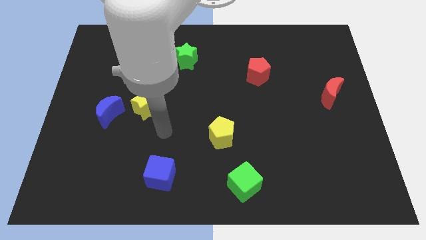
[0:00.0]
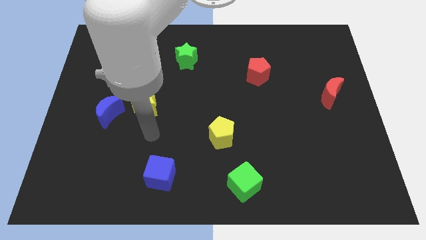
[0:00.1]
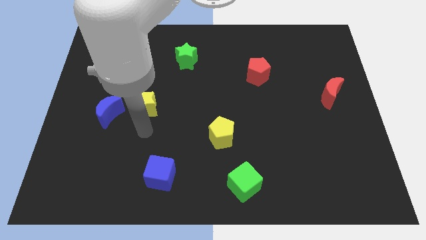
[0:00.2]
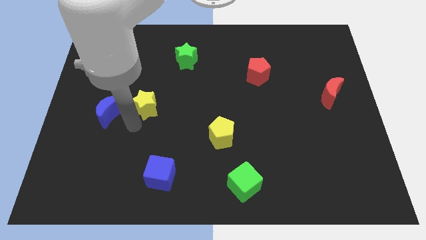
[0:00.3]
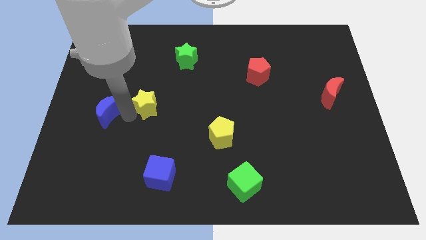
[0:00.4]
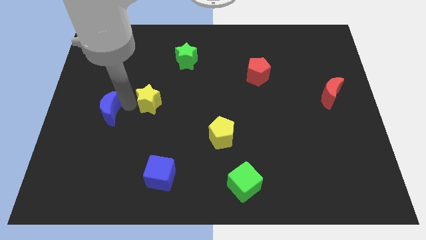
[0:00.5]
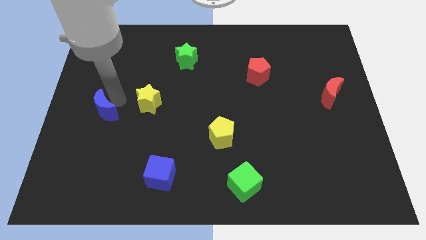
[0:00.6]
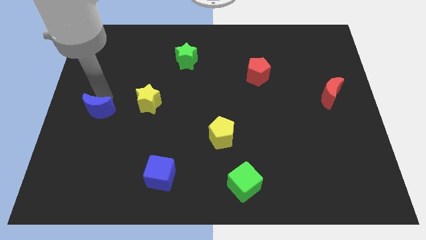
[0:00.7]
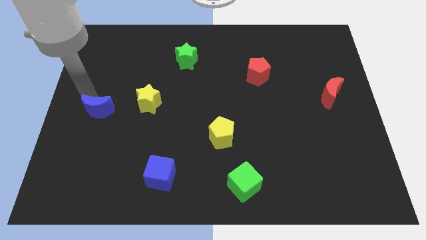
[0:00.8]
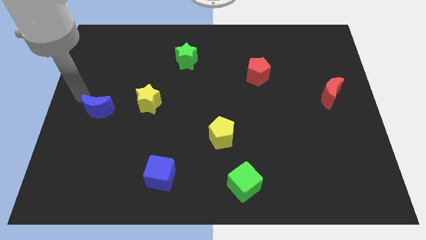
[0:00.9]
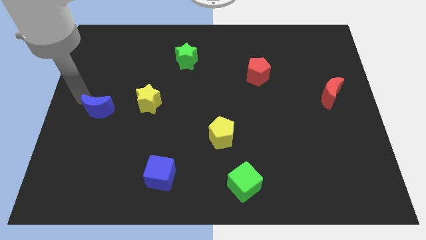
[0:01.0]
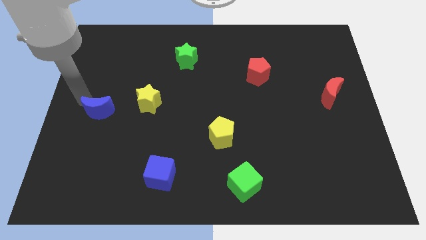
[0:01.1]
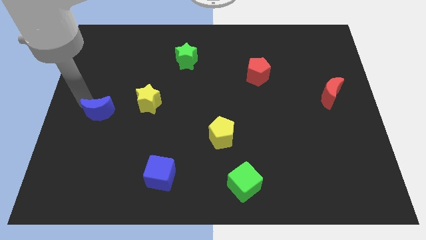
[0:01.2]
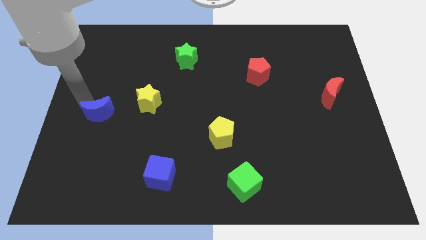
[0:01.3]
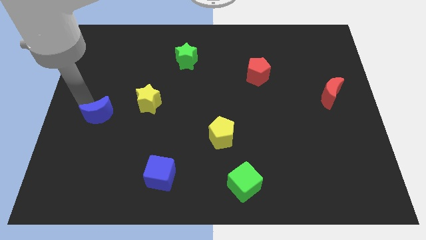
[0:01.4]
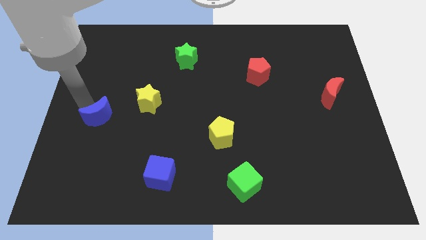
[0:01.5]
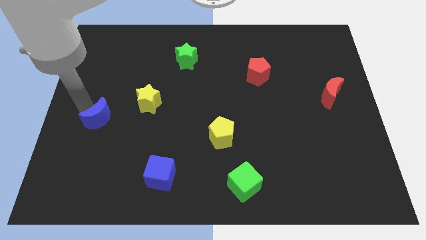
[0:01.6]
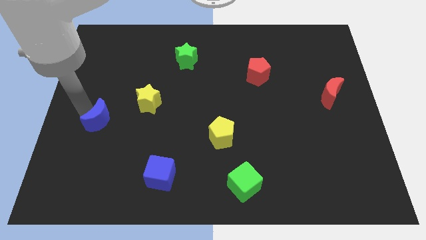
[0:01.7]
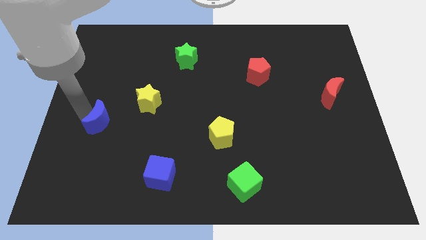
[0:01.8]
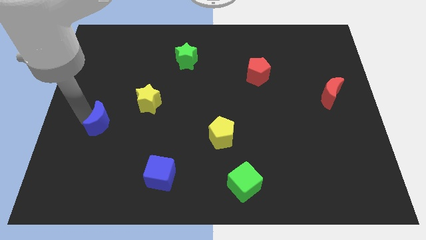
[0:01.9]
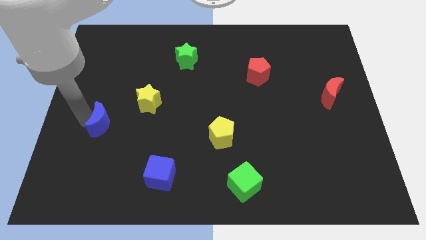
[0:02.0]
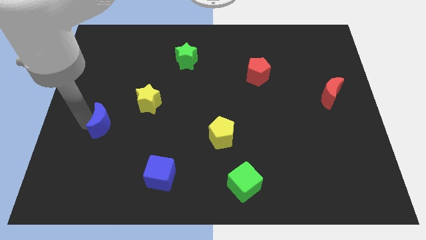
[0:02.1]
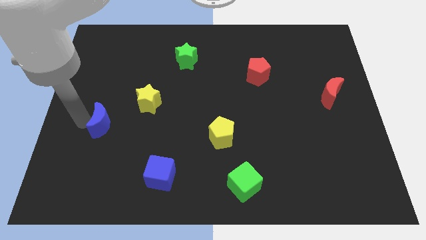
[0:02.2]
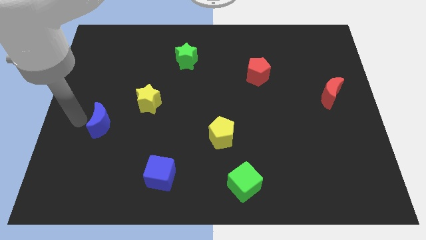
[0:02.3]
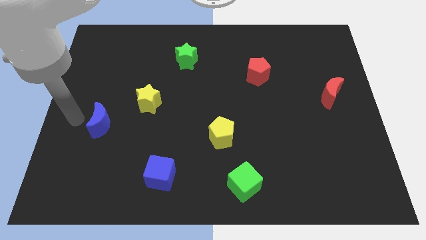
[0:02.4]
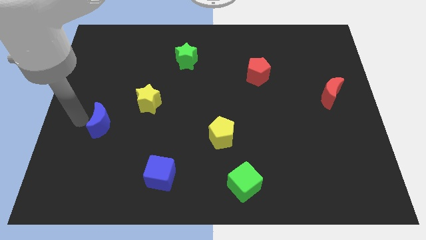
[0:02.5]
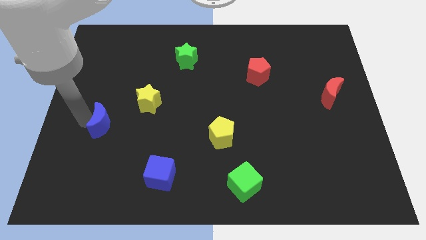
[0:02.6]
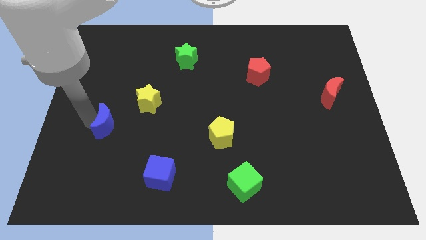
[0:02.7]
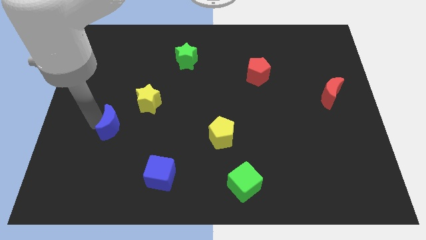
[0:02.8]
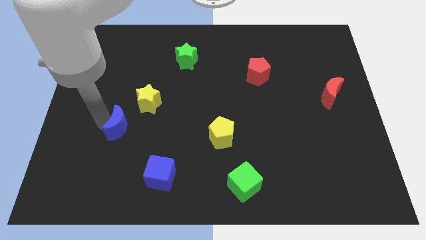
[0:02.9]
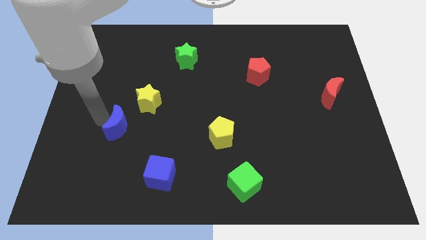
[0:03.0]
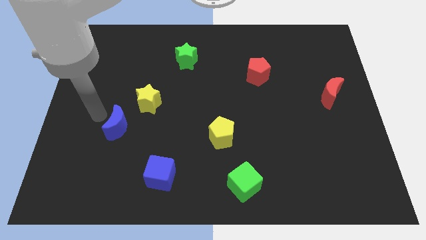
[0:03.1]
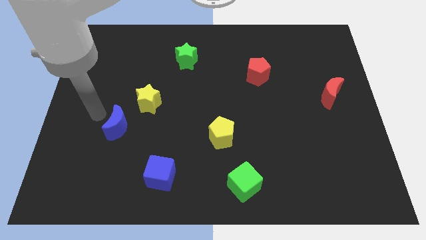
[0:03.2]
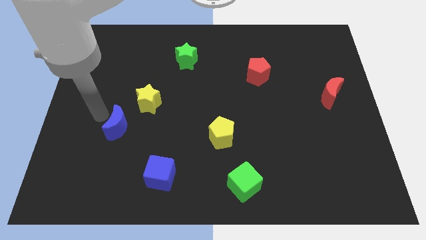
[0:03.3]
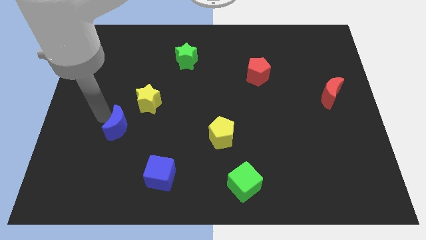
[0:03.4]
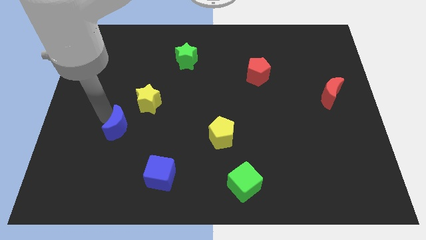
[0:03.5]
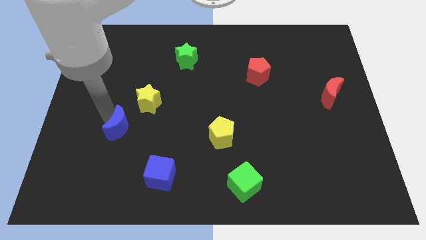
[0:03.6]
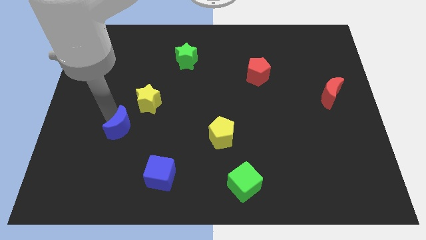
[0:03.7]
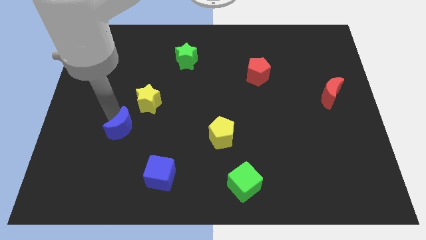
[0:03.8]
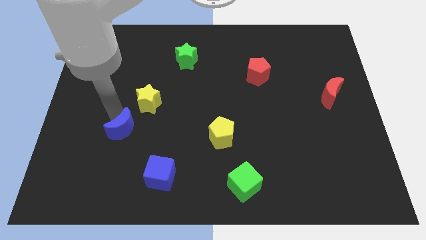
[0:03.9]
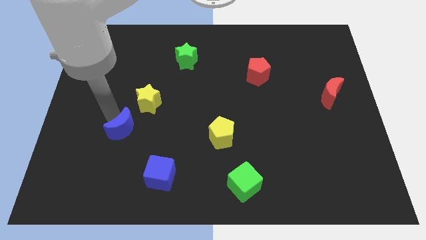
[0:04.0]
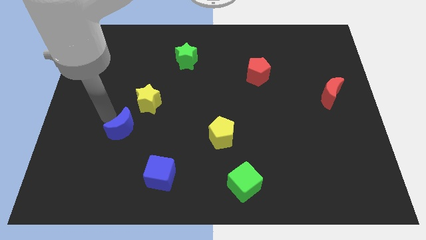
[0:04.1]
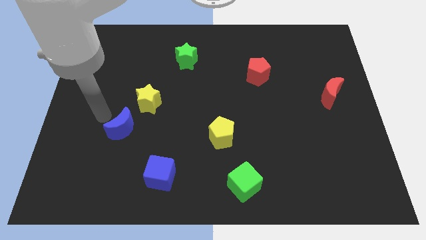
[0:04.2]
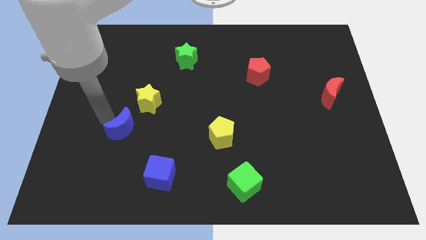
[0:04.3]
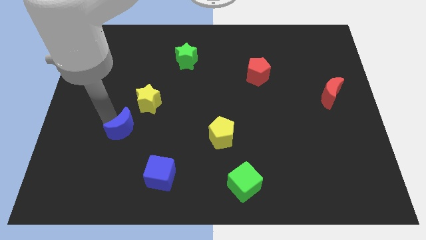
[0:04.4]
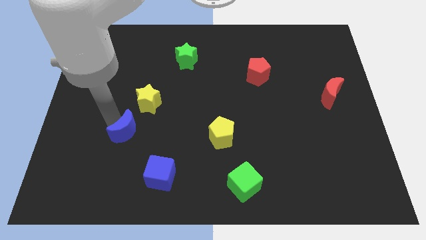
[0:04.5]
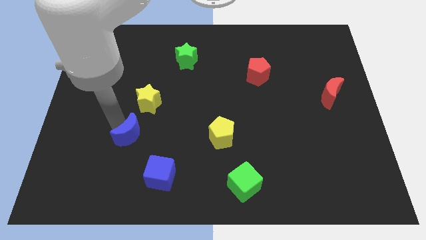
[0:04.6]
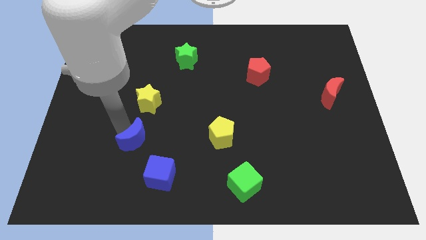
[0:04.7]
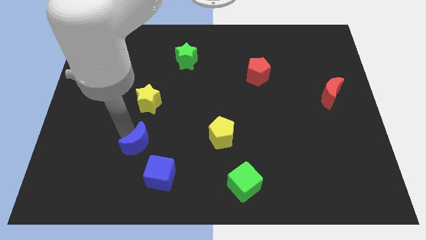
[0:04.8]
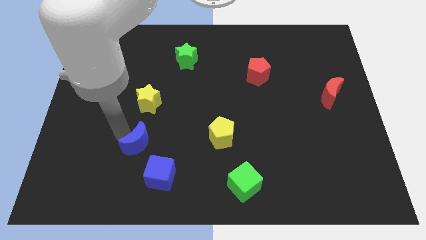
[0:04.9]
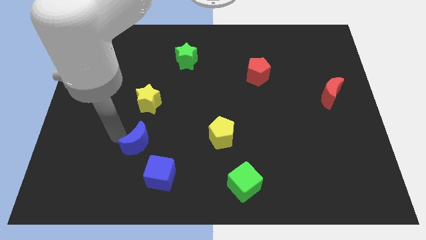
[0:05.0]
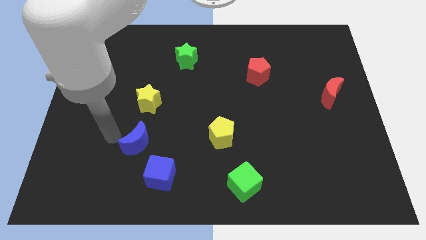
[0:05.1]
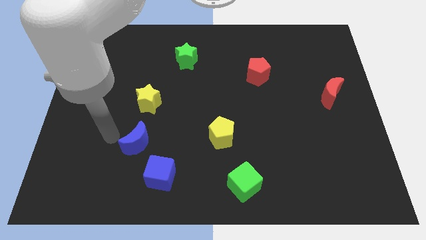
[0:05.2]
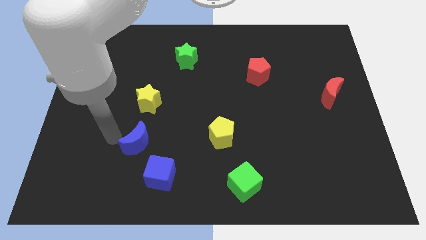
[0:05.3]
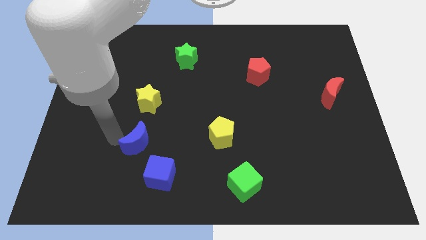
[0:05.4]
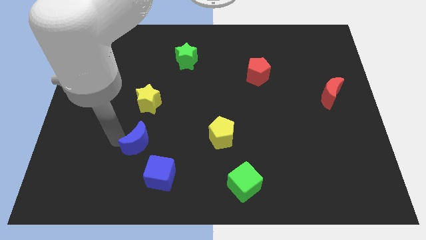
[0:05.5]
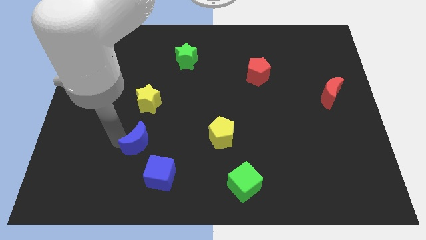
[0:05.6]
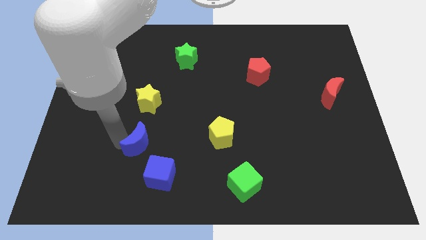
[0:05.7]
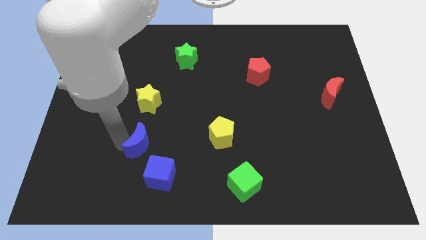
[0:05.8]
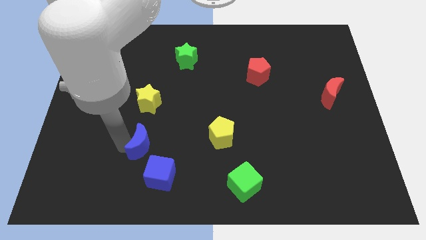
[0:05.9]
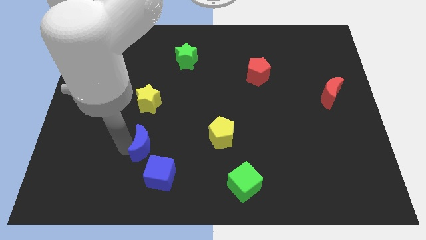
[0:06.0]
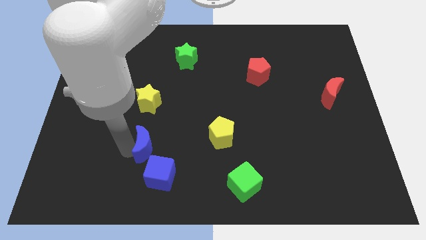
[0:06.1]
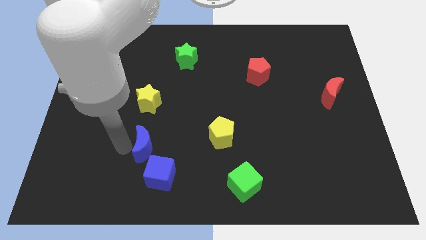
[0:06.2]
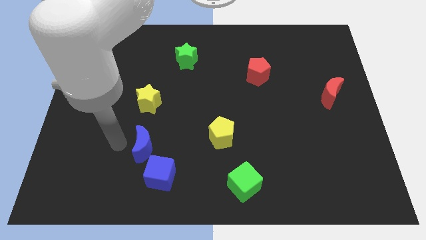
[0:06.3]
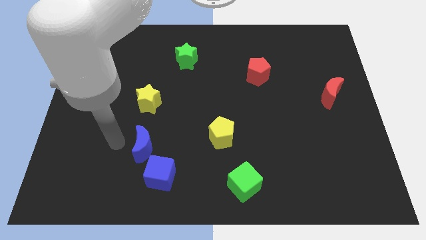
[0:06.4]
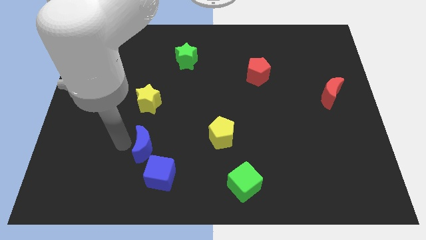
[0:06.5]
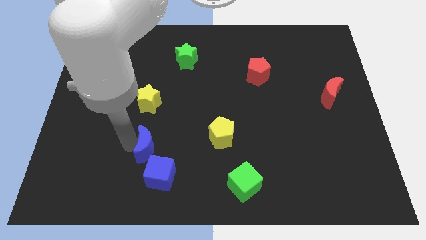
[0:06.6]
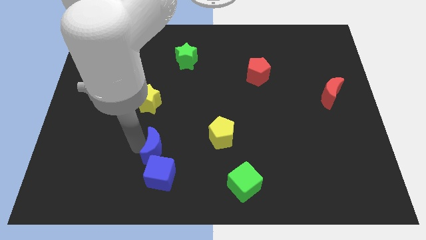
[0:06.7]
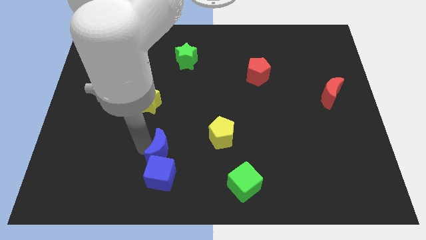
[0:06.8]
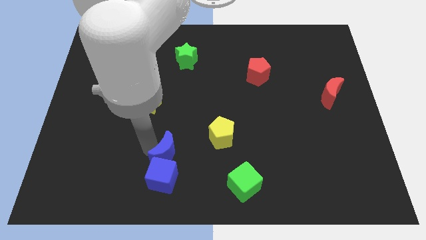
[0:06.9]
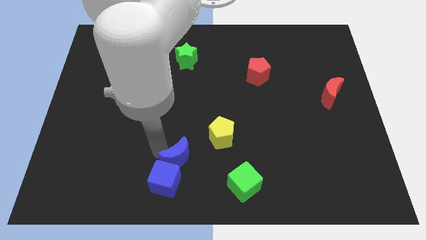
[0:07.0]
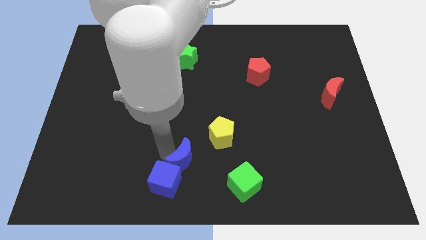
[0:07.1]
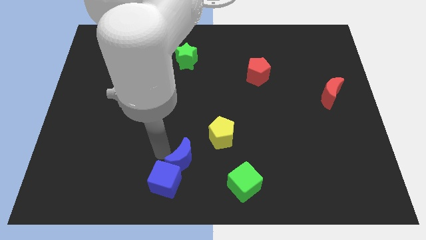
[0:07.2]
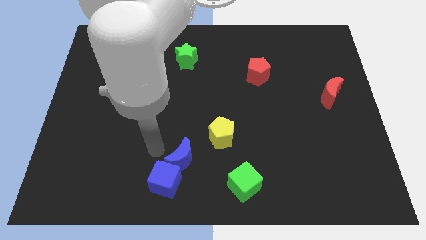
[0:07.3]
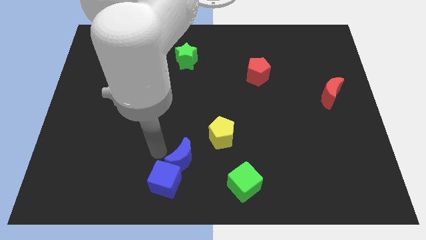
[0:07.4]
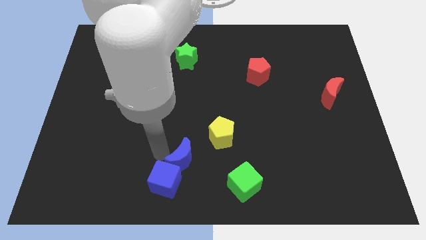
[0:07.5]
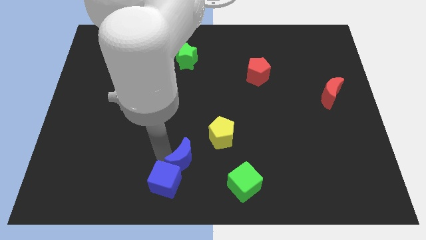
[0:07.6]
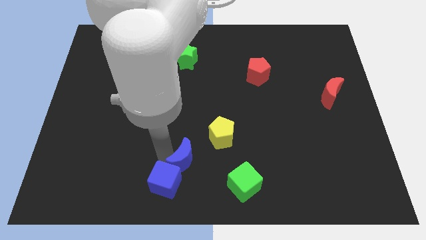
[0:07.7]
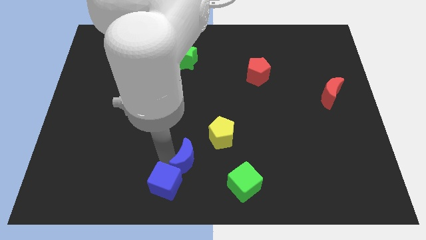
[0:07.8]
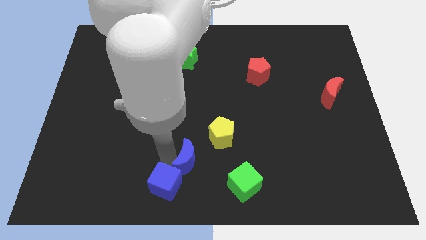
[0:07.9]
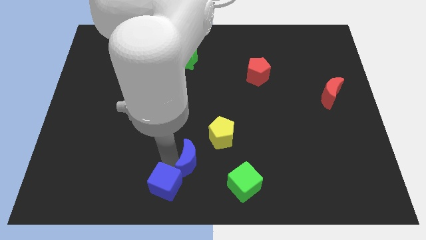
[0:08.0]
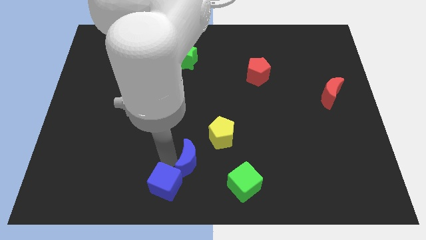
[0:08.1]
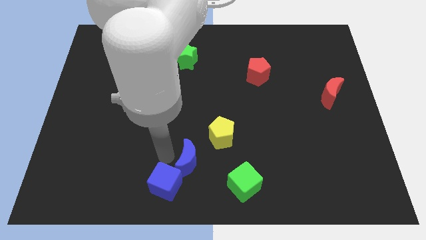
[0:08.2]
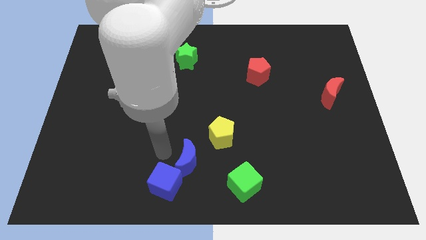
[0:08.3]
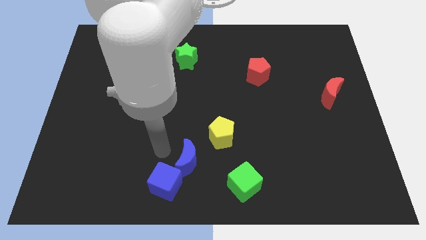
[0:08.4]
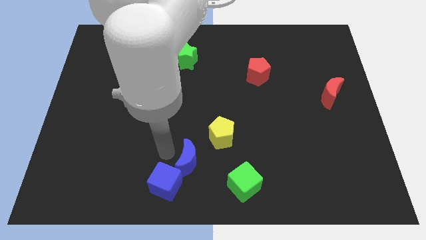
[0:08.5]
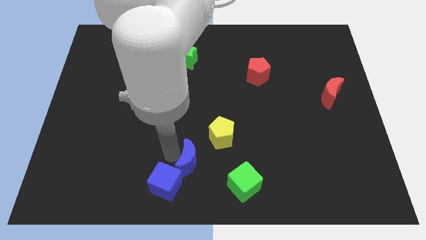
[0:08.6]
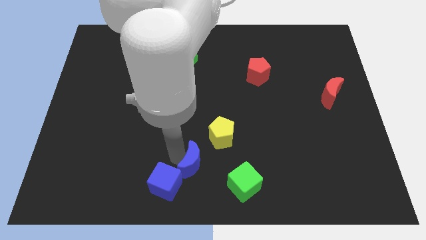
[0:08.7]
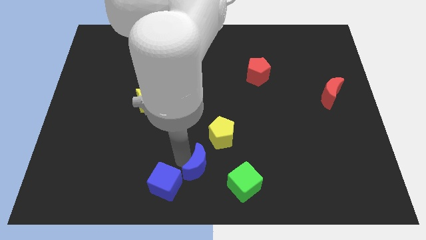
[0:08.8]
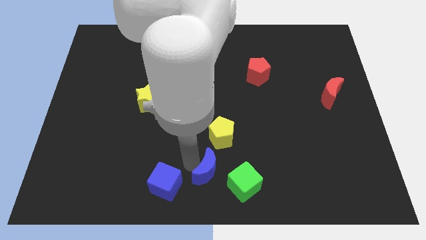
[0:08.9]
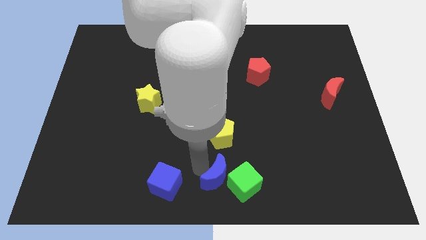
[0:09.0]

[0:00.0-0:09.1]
push the blue moon to the green cube
